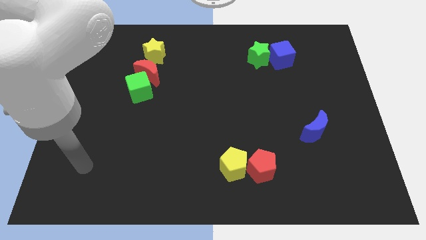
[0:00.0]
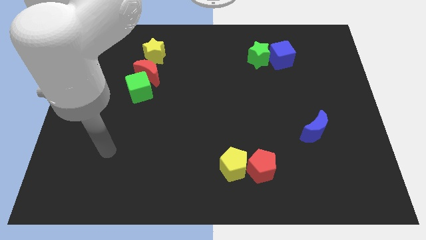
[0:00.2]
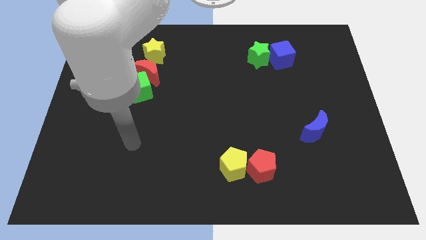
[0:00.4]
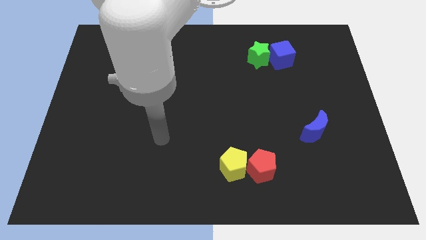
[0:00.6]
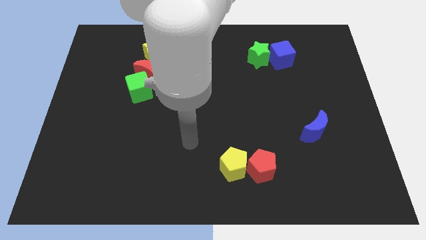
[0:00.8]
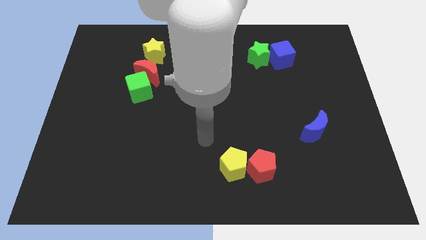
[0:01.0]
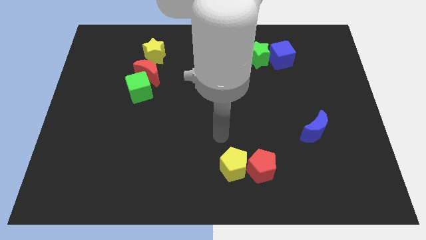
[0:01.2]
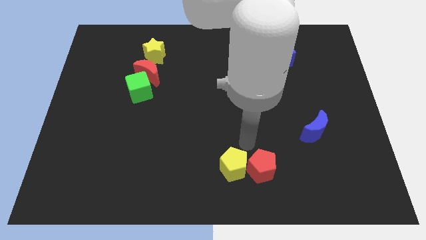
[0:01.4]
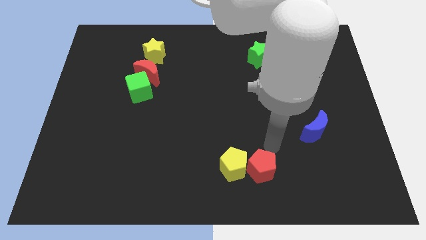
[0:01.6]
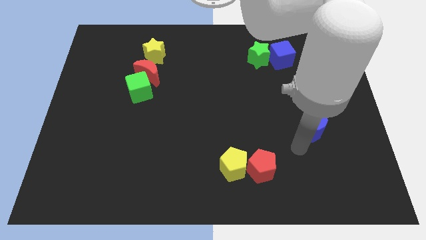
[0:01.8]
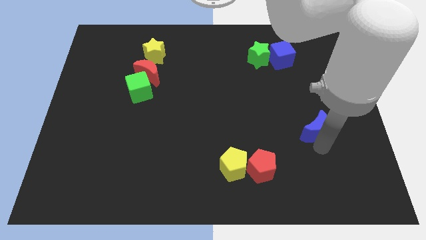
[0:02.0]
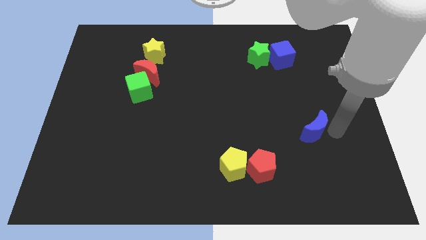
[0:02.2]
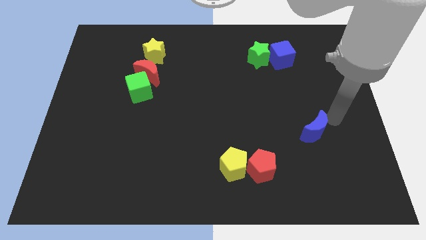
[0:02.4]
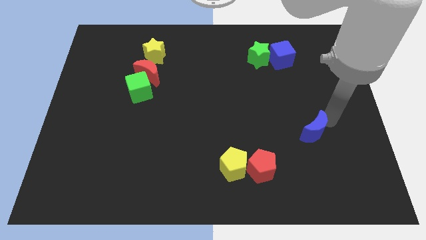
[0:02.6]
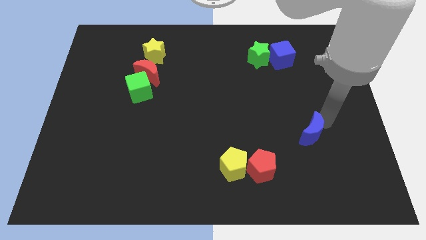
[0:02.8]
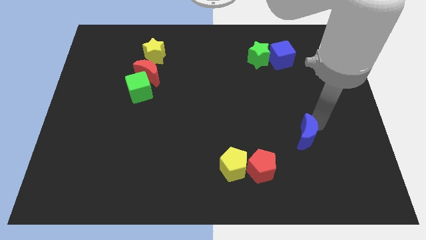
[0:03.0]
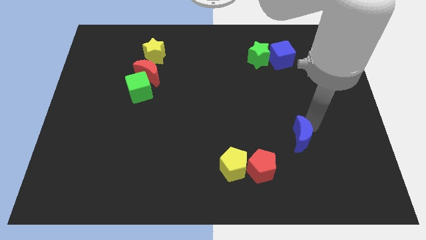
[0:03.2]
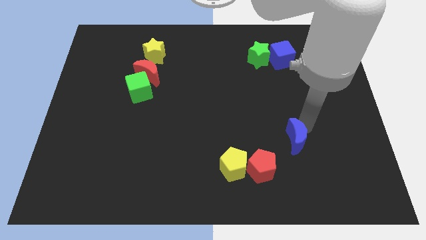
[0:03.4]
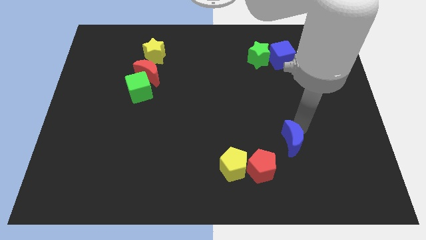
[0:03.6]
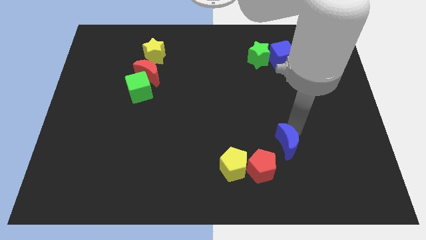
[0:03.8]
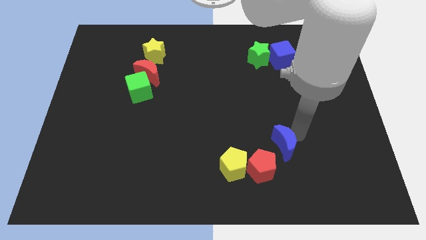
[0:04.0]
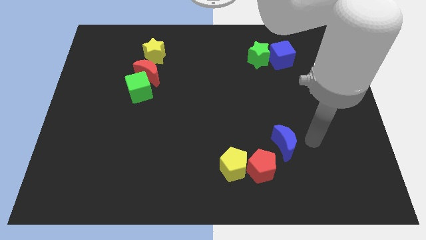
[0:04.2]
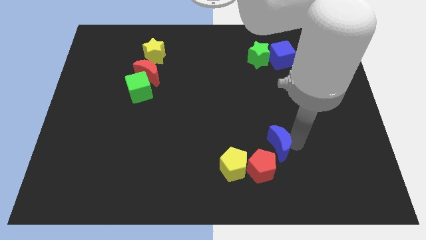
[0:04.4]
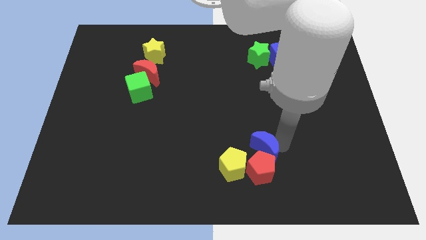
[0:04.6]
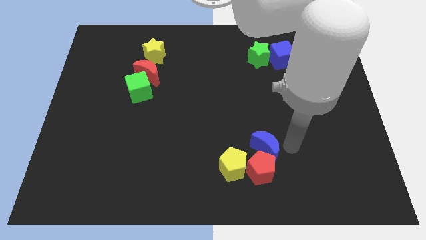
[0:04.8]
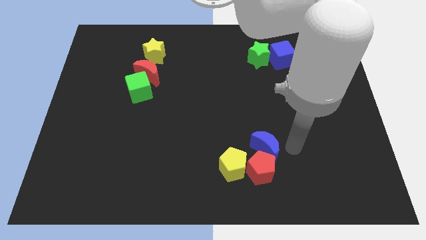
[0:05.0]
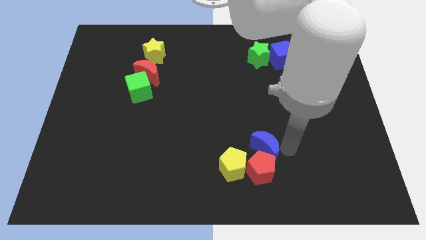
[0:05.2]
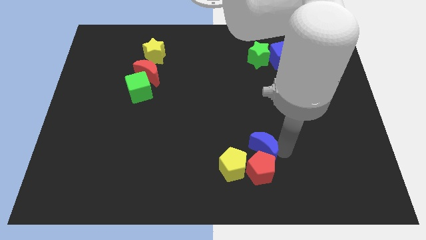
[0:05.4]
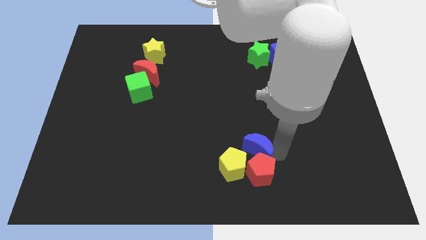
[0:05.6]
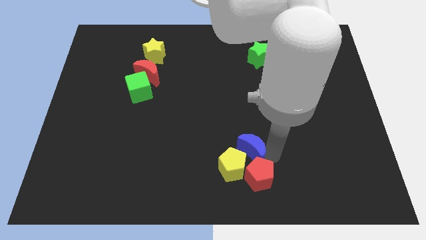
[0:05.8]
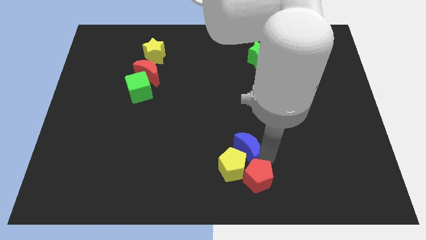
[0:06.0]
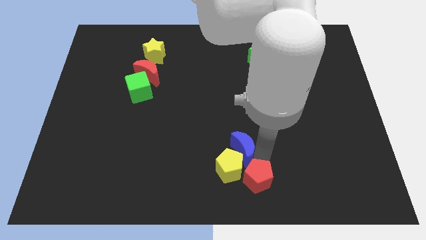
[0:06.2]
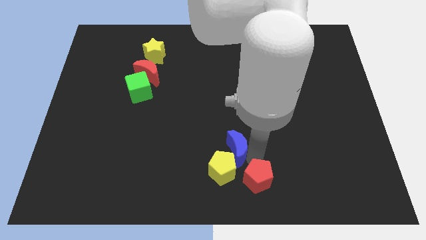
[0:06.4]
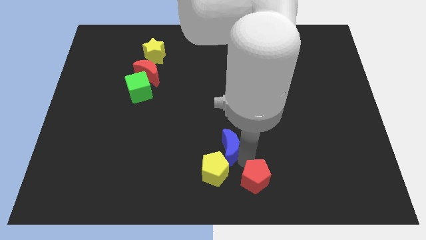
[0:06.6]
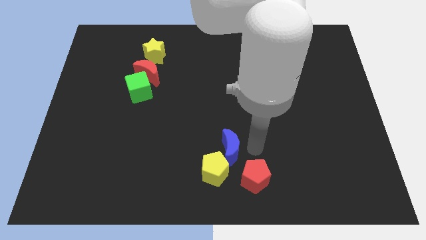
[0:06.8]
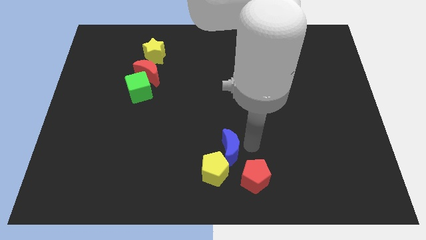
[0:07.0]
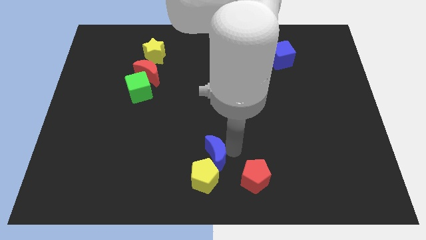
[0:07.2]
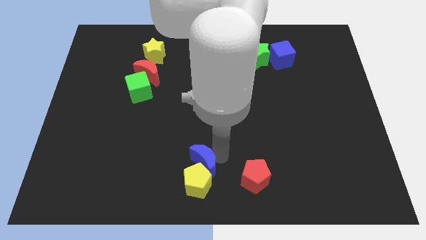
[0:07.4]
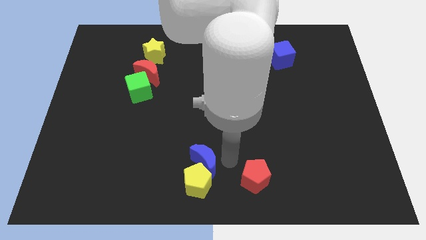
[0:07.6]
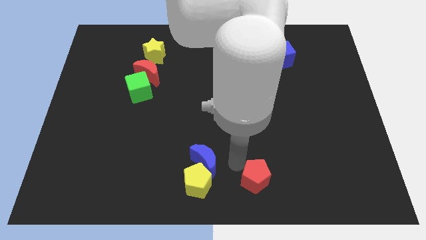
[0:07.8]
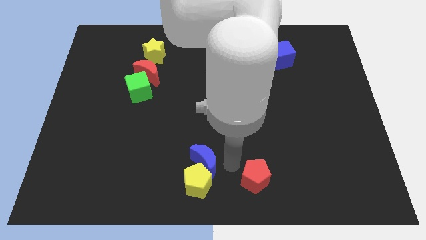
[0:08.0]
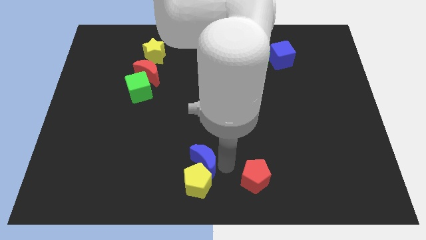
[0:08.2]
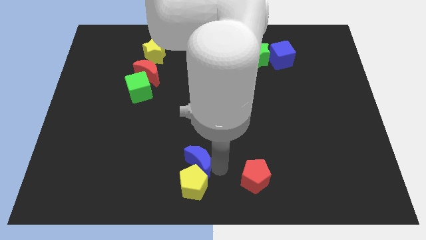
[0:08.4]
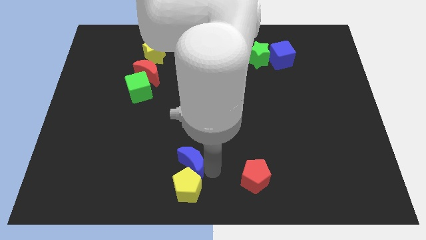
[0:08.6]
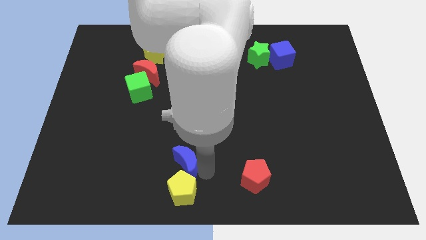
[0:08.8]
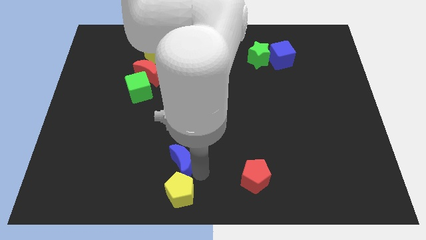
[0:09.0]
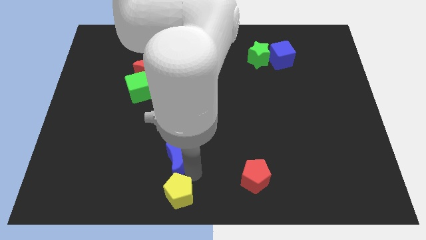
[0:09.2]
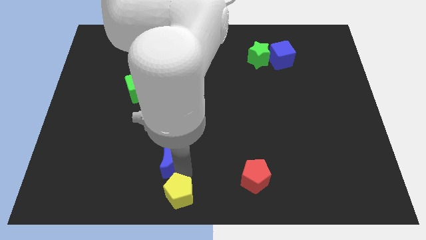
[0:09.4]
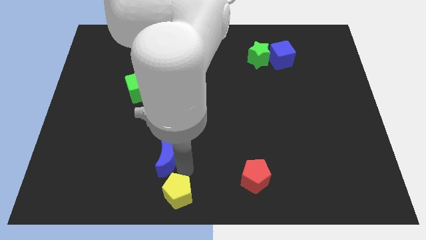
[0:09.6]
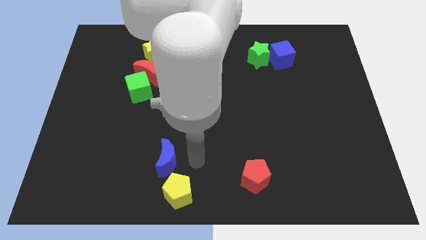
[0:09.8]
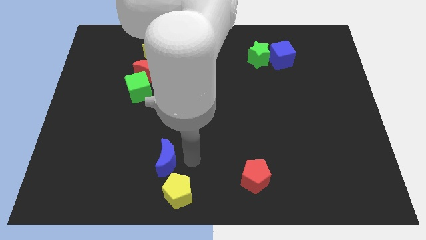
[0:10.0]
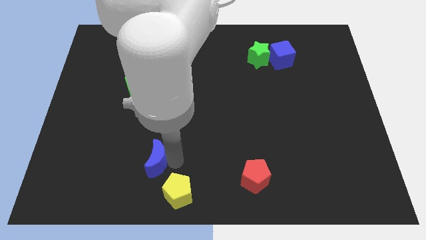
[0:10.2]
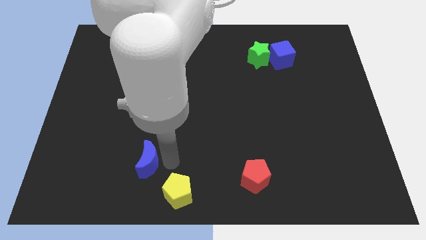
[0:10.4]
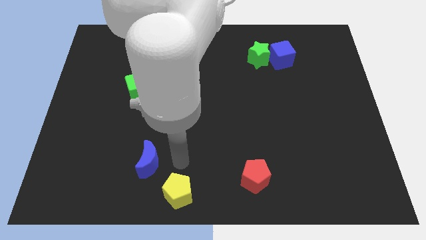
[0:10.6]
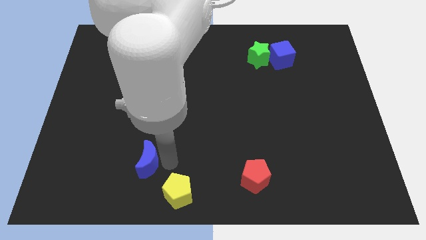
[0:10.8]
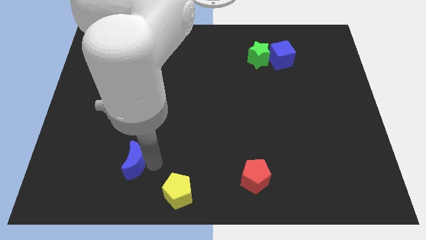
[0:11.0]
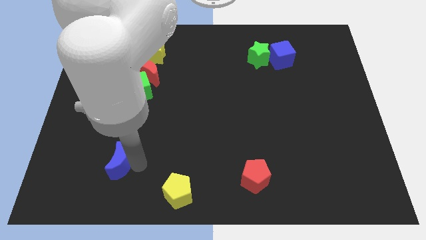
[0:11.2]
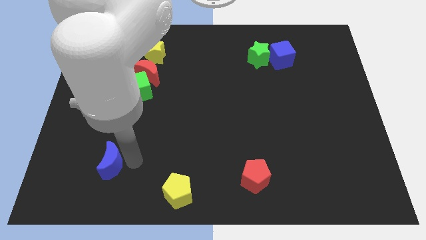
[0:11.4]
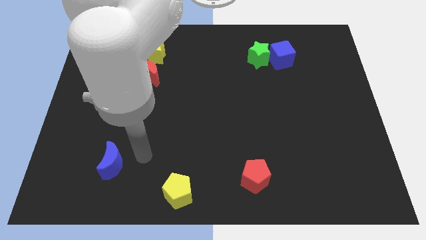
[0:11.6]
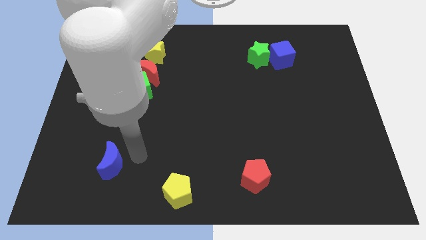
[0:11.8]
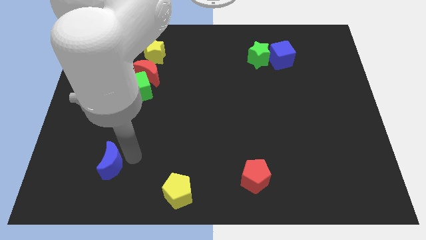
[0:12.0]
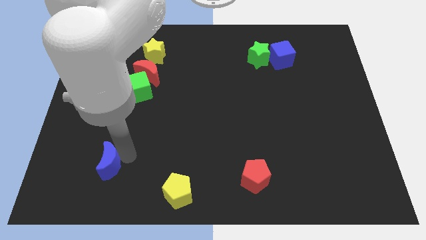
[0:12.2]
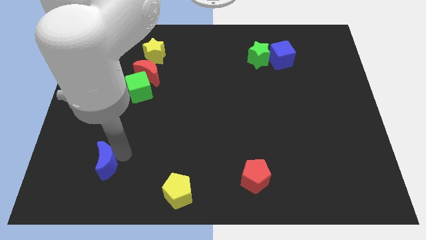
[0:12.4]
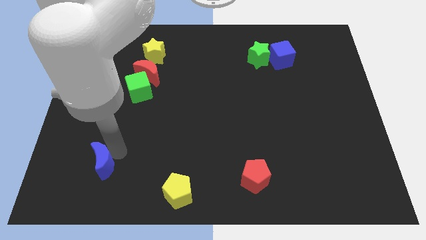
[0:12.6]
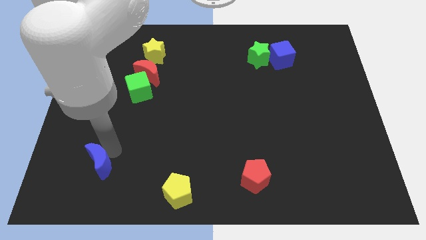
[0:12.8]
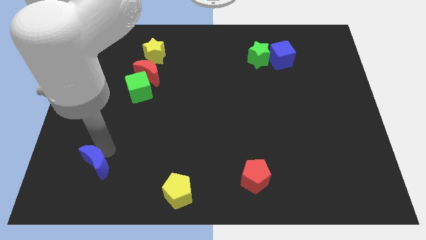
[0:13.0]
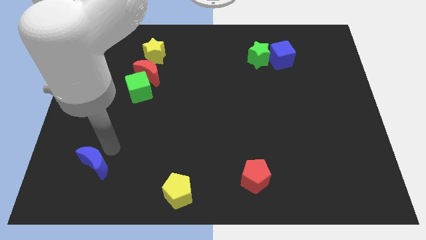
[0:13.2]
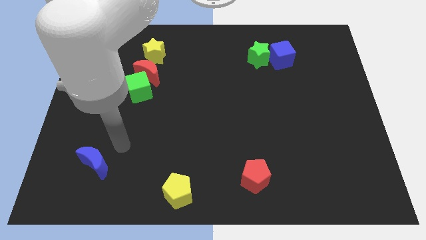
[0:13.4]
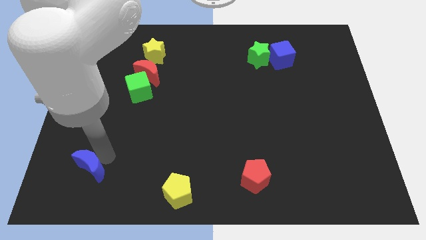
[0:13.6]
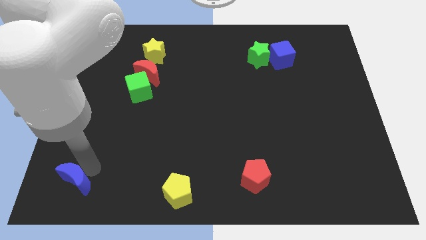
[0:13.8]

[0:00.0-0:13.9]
move the blue moon to the bottom left corner

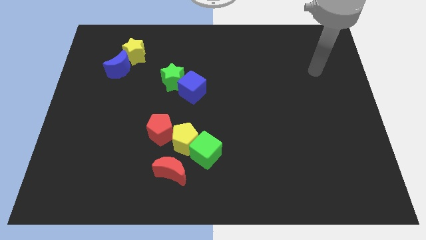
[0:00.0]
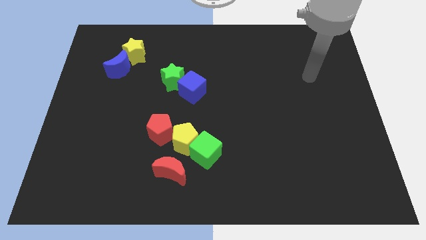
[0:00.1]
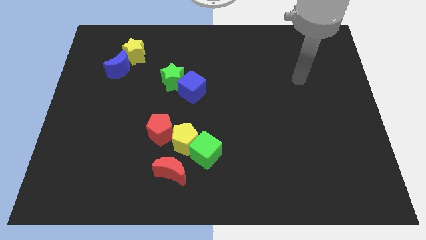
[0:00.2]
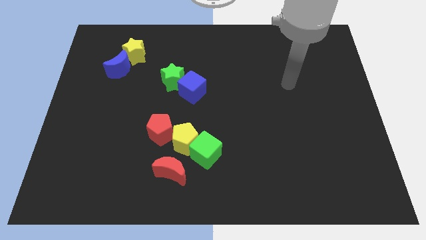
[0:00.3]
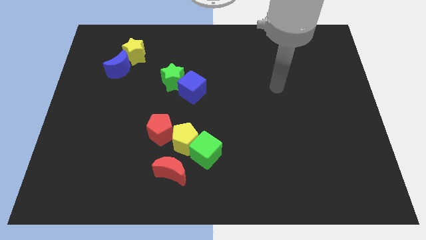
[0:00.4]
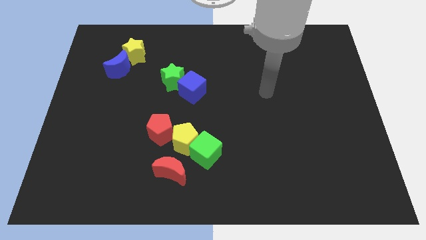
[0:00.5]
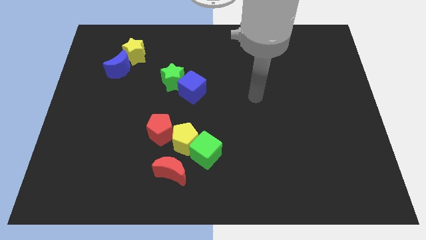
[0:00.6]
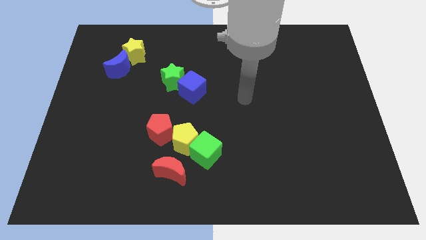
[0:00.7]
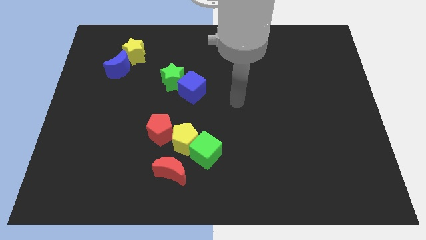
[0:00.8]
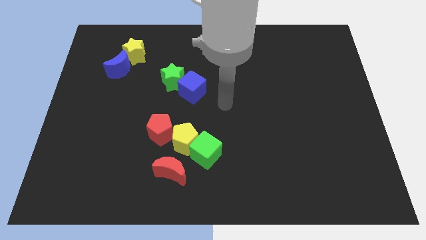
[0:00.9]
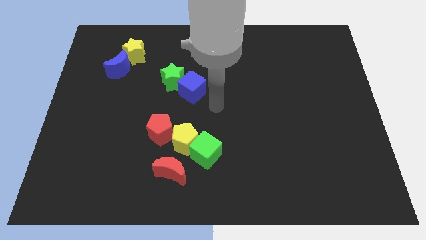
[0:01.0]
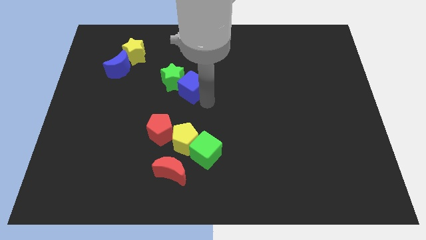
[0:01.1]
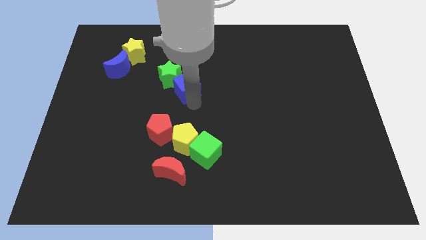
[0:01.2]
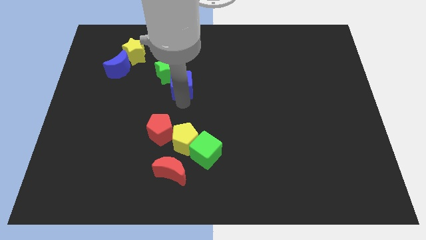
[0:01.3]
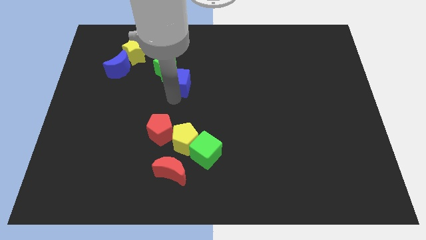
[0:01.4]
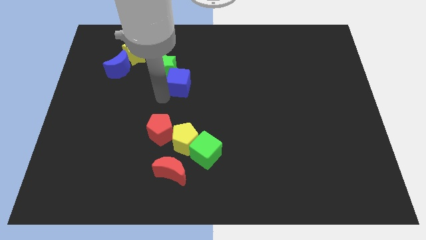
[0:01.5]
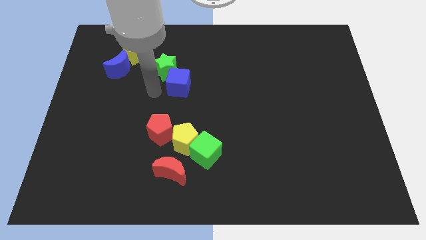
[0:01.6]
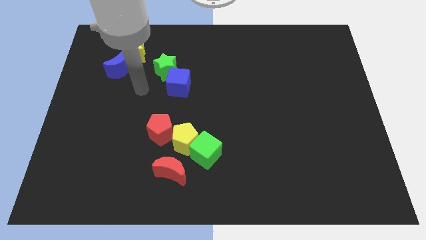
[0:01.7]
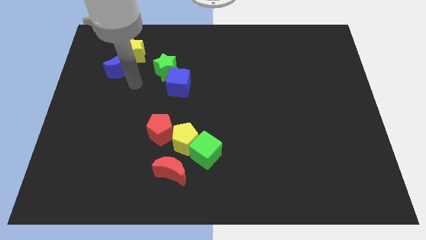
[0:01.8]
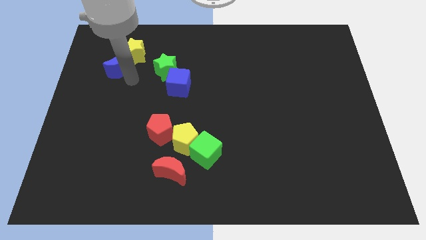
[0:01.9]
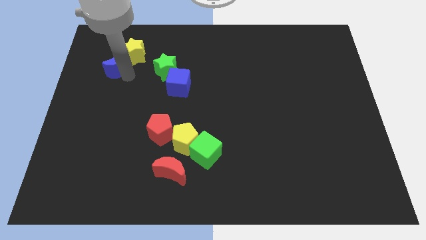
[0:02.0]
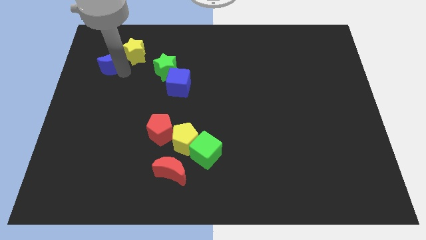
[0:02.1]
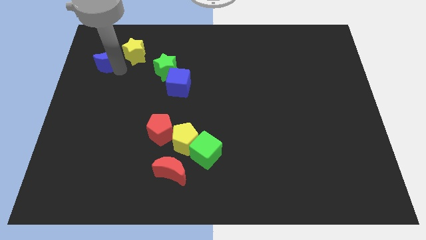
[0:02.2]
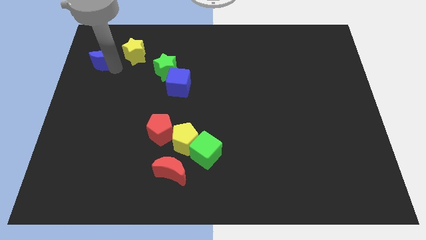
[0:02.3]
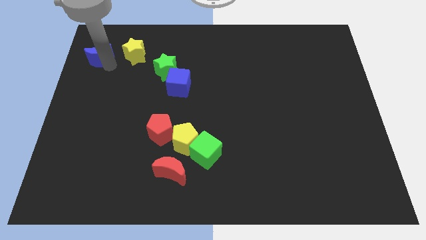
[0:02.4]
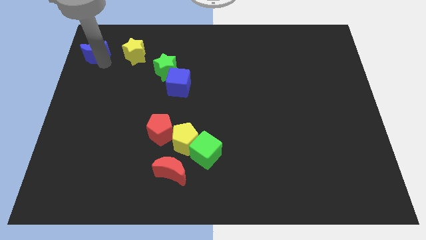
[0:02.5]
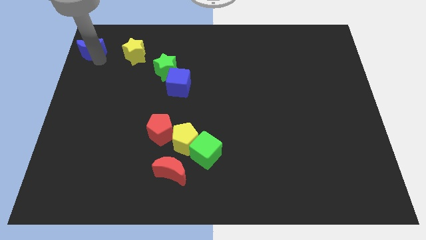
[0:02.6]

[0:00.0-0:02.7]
move the blue moon to the top left
